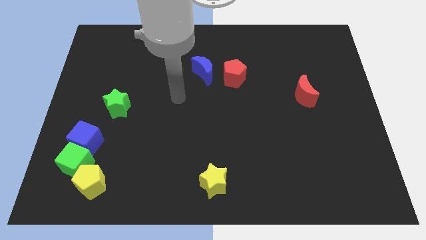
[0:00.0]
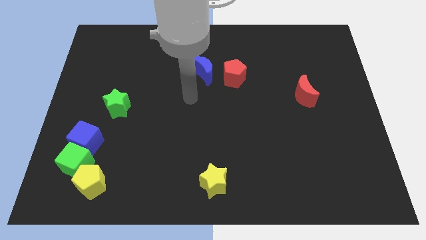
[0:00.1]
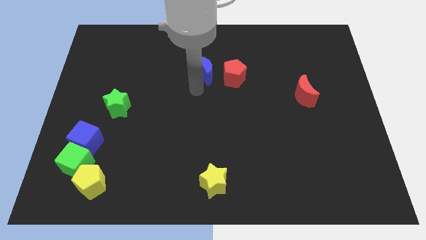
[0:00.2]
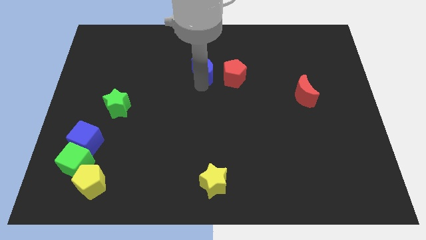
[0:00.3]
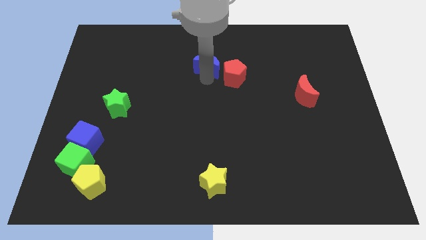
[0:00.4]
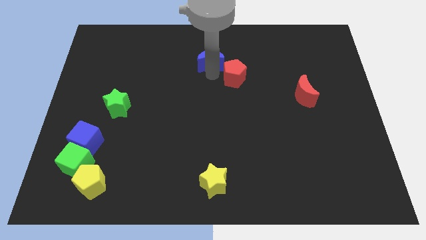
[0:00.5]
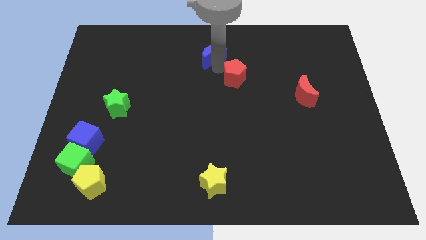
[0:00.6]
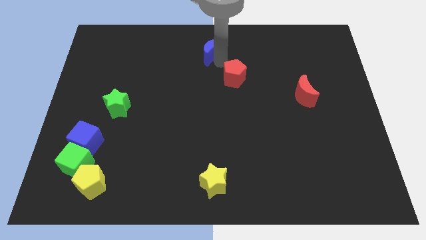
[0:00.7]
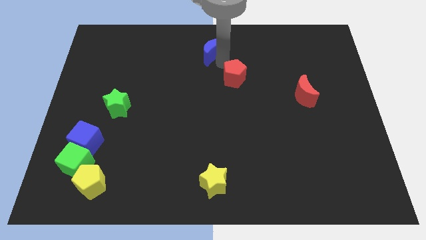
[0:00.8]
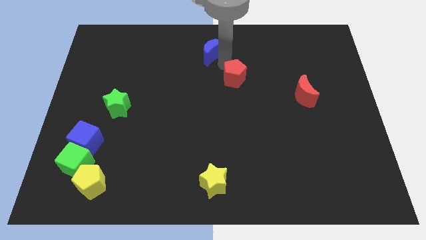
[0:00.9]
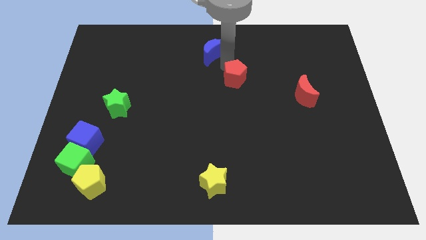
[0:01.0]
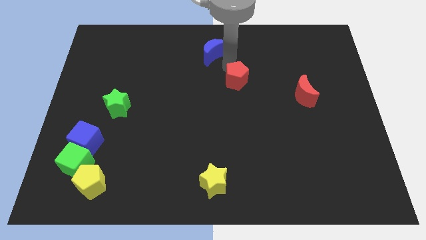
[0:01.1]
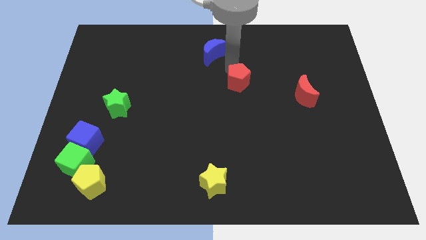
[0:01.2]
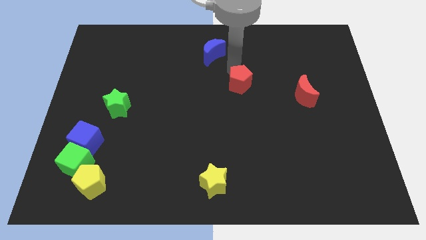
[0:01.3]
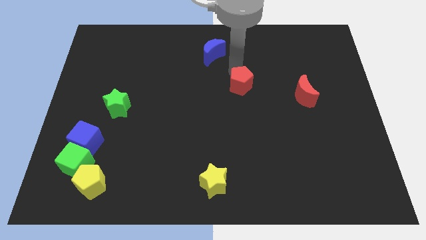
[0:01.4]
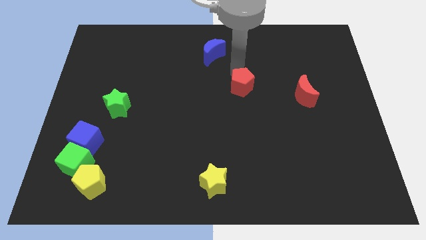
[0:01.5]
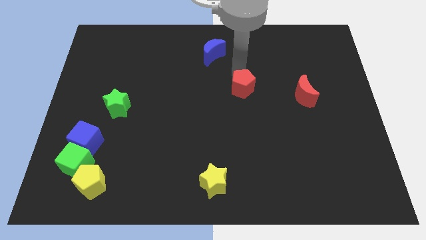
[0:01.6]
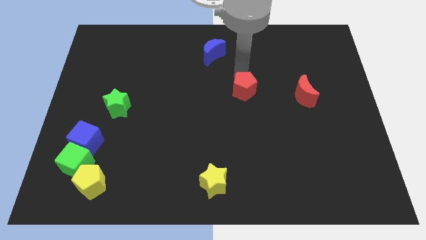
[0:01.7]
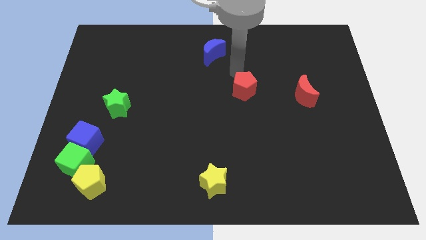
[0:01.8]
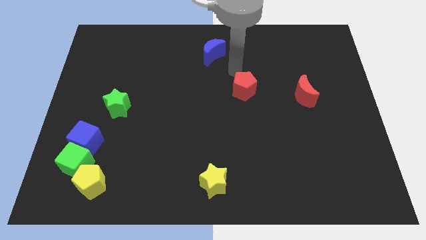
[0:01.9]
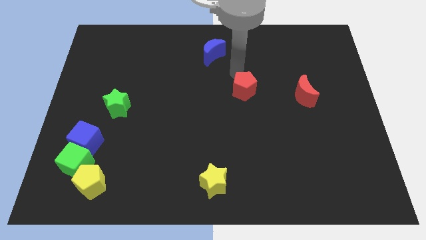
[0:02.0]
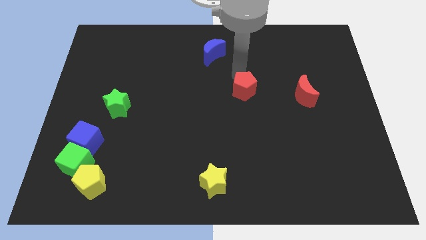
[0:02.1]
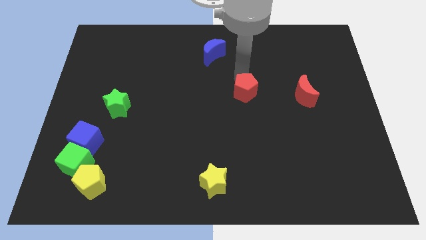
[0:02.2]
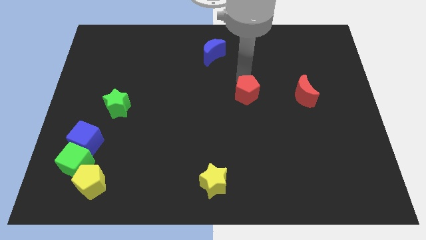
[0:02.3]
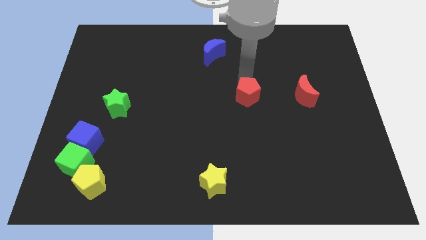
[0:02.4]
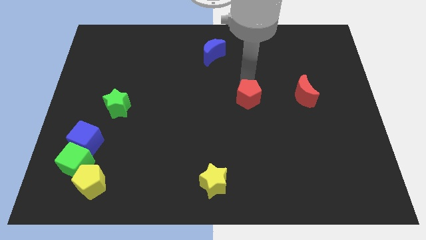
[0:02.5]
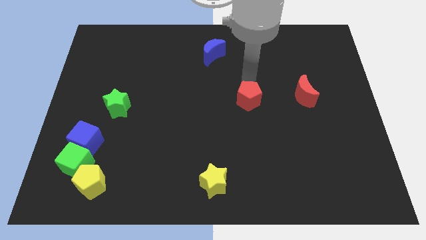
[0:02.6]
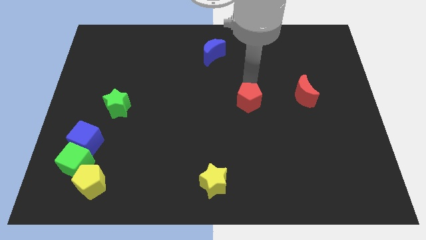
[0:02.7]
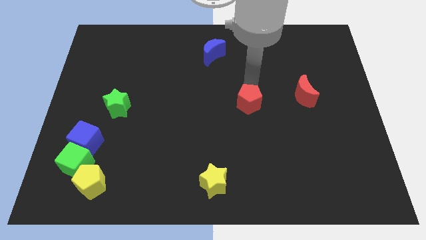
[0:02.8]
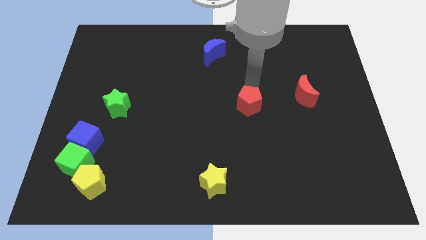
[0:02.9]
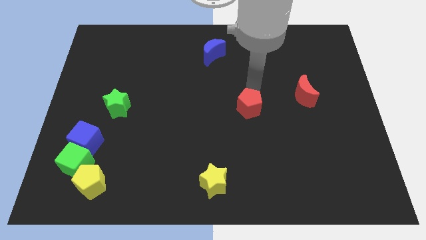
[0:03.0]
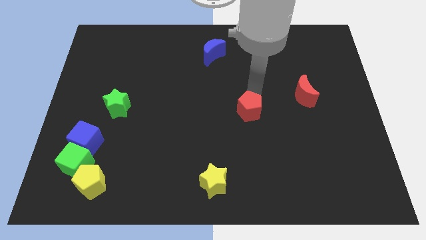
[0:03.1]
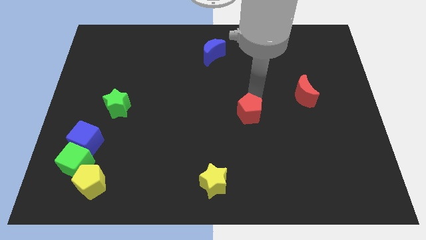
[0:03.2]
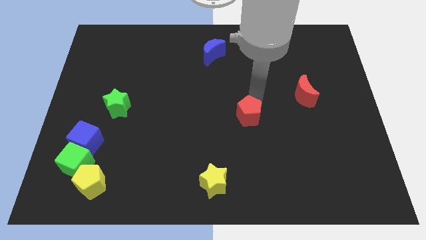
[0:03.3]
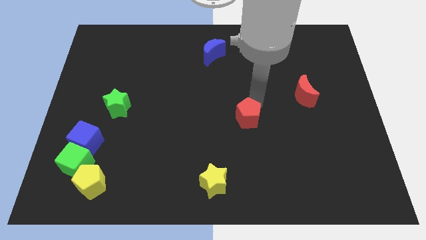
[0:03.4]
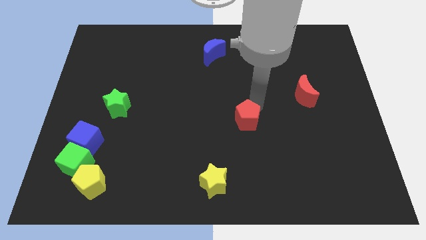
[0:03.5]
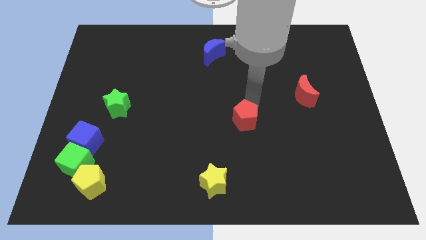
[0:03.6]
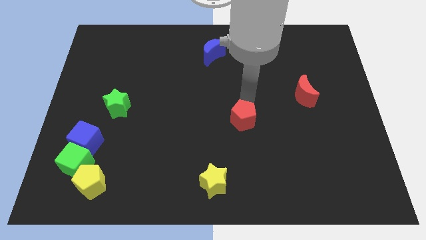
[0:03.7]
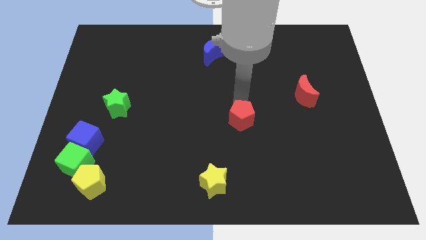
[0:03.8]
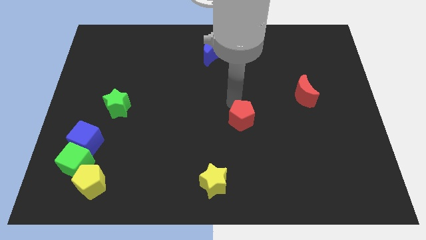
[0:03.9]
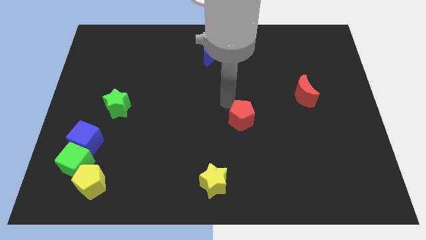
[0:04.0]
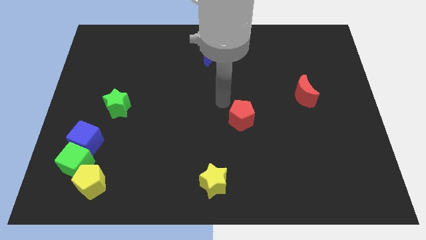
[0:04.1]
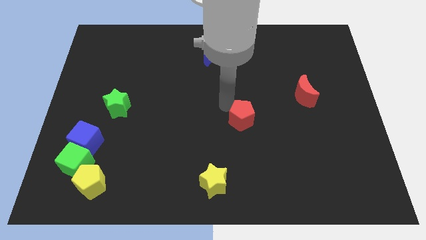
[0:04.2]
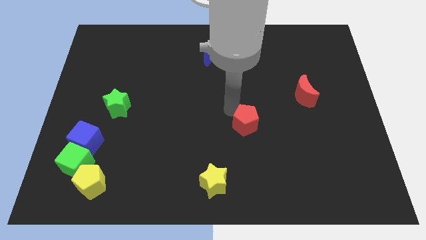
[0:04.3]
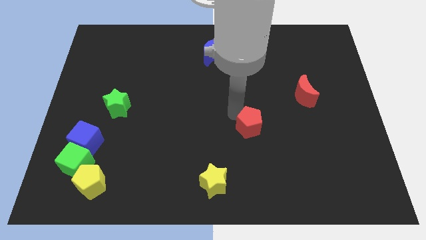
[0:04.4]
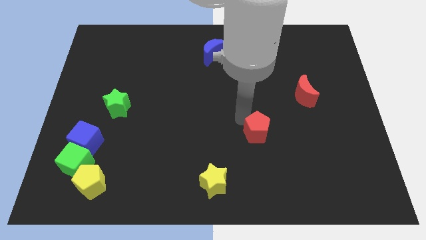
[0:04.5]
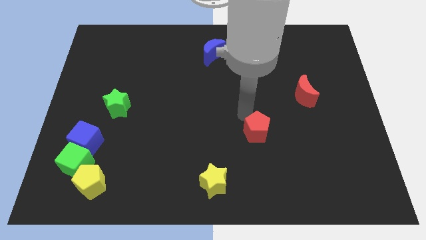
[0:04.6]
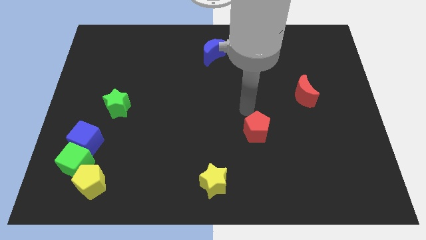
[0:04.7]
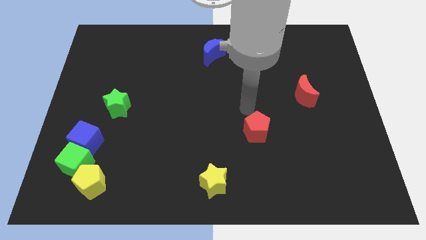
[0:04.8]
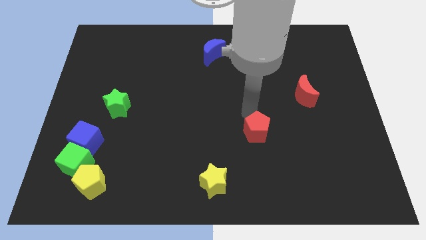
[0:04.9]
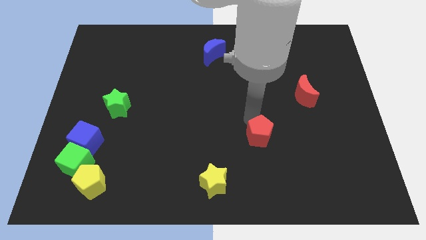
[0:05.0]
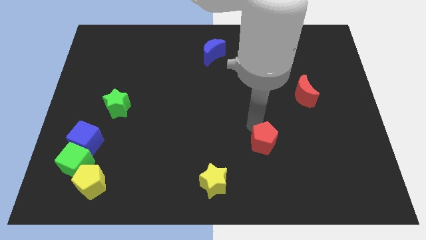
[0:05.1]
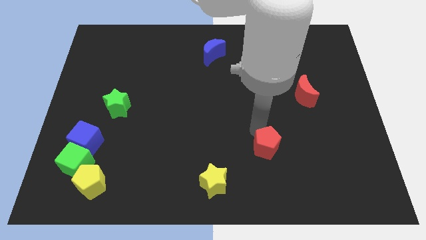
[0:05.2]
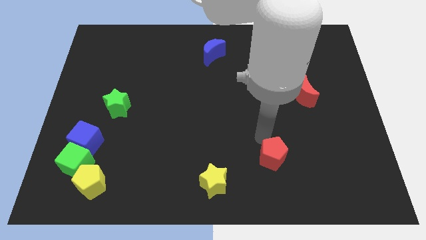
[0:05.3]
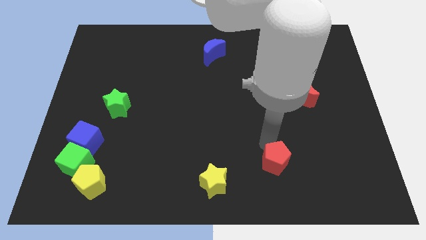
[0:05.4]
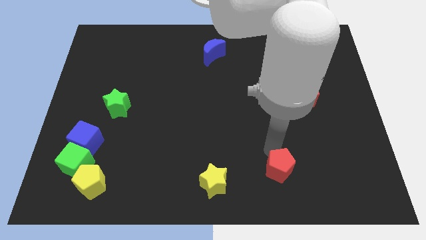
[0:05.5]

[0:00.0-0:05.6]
move the red pentagon right of the yellow star

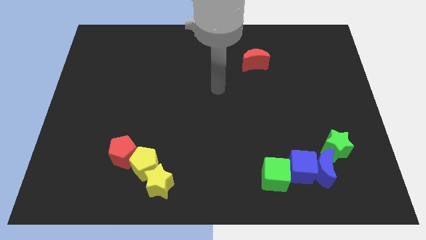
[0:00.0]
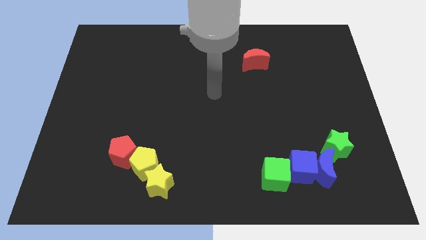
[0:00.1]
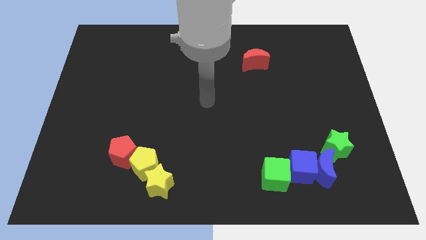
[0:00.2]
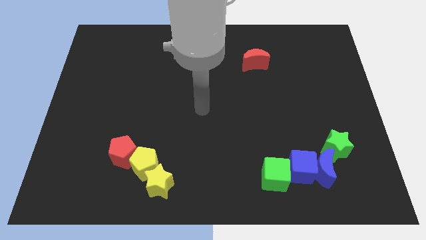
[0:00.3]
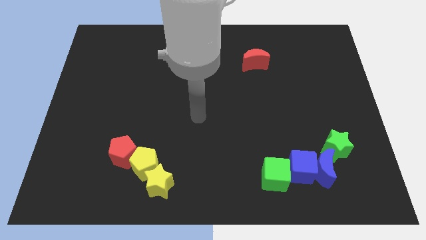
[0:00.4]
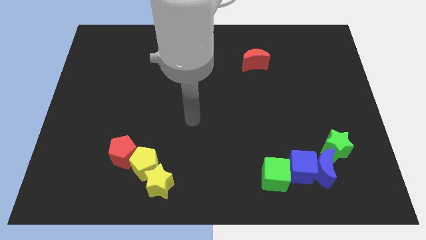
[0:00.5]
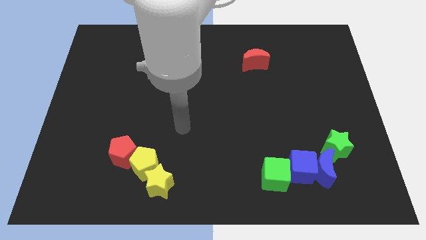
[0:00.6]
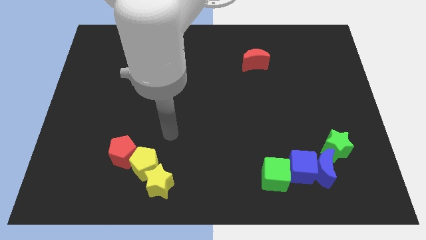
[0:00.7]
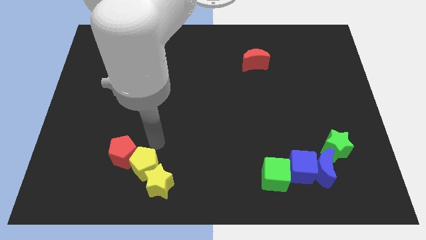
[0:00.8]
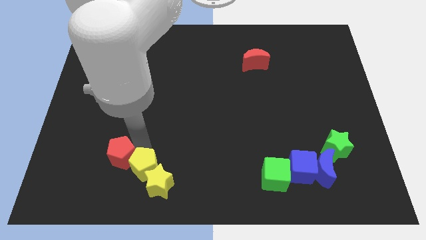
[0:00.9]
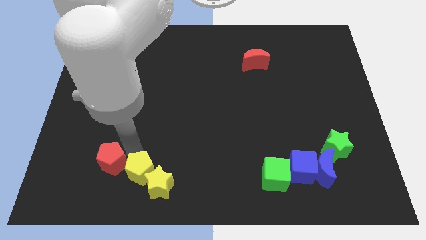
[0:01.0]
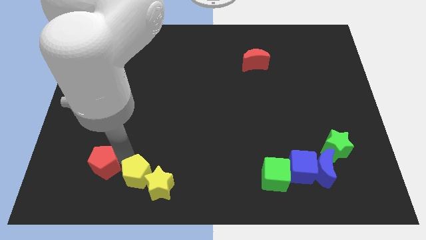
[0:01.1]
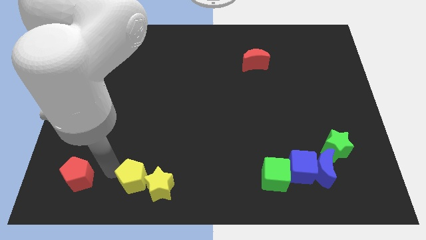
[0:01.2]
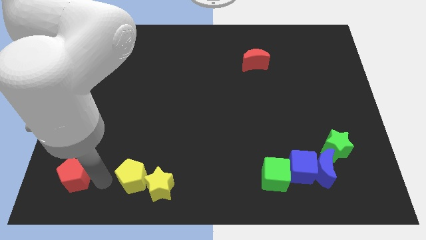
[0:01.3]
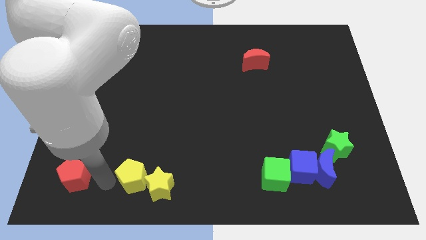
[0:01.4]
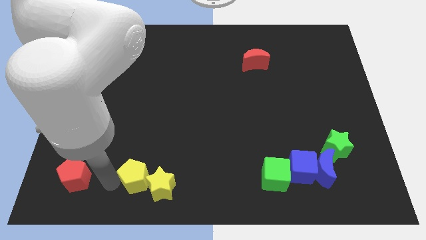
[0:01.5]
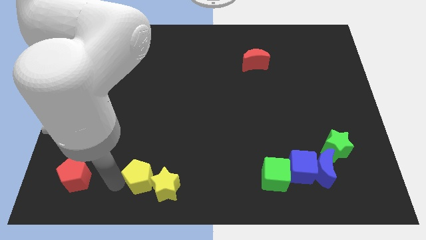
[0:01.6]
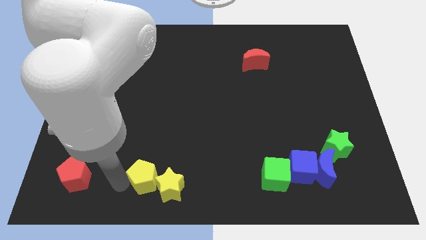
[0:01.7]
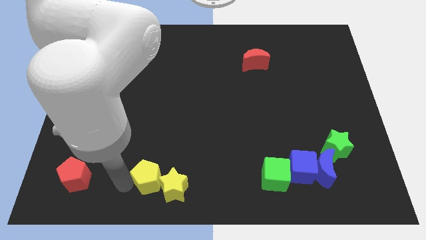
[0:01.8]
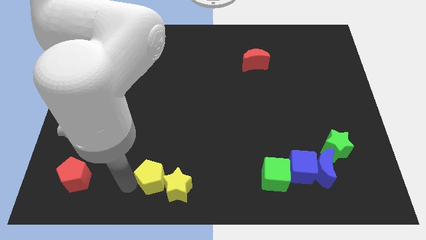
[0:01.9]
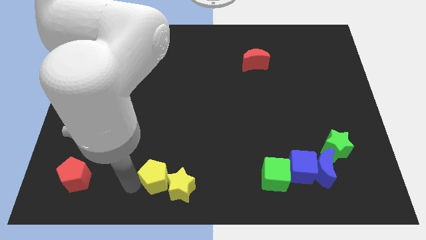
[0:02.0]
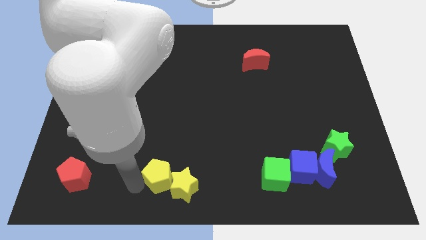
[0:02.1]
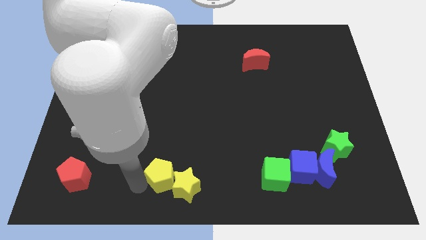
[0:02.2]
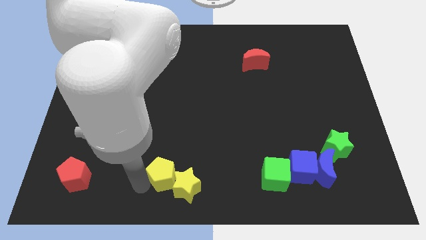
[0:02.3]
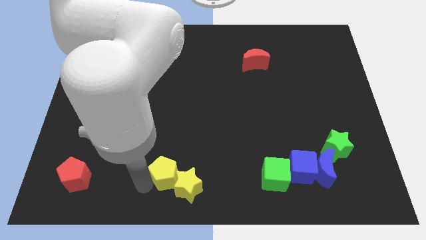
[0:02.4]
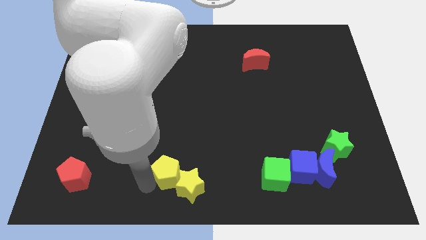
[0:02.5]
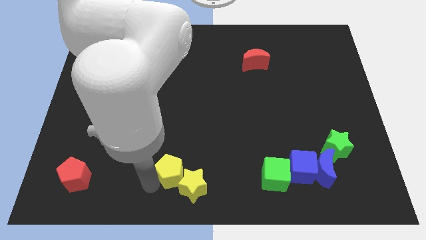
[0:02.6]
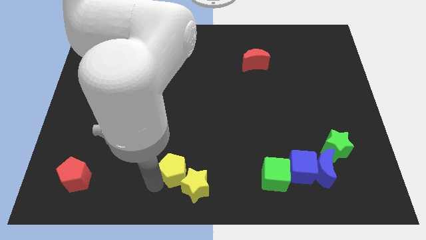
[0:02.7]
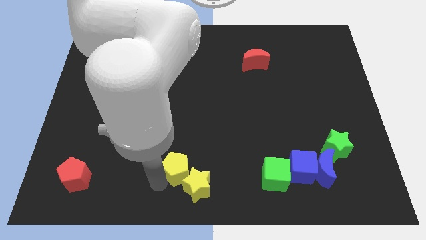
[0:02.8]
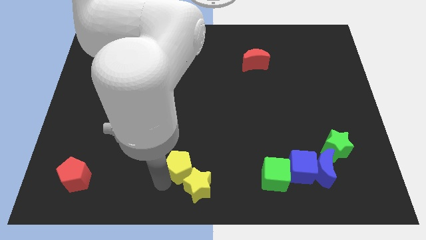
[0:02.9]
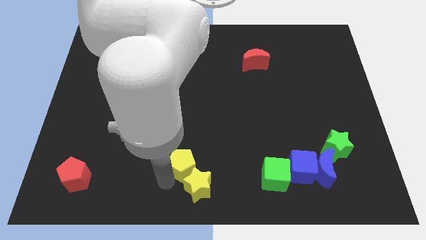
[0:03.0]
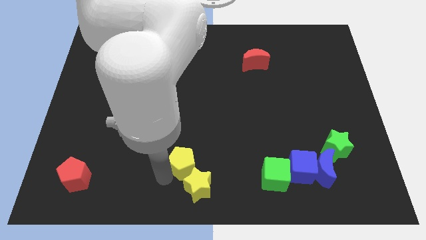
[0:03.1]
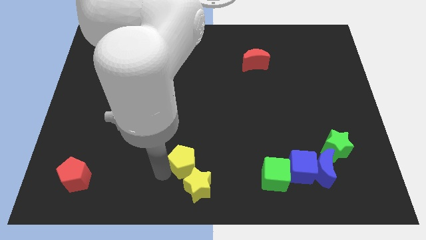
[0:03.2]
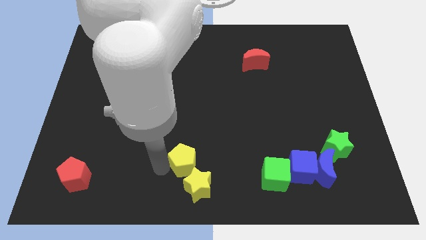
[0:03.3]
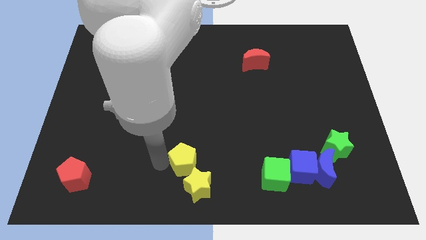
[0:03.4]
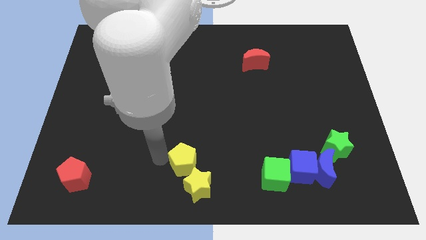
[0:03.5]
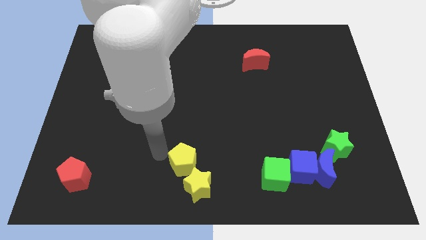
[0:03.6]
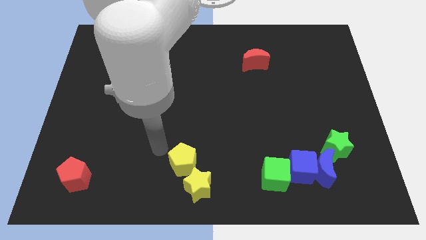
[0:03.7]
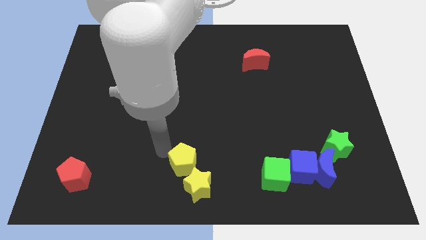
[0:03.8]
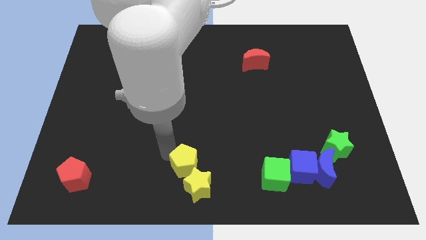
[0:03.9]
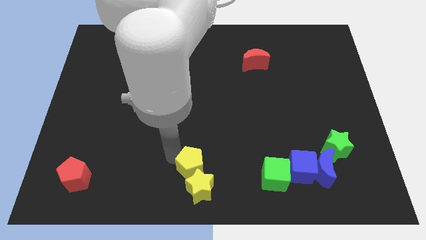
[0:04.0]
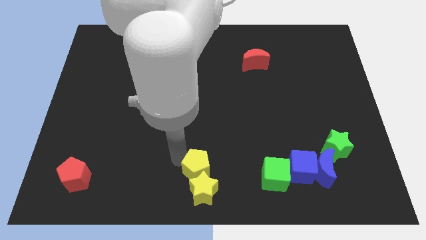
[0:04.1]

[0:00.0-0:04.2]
put the yellow pentagon to the left side of the green cube
